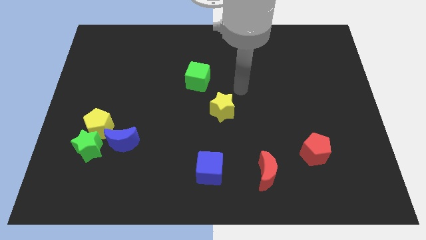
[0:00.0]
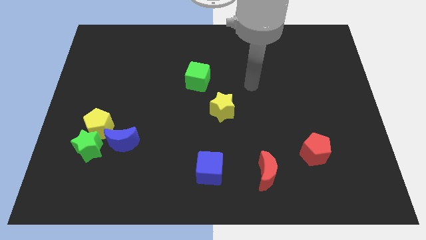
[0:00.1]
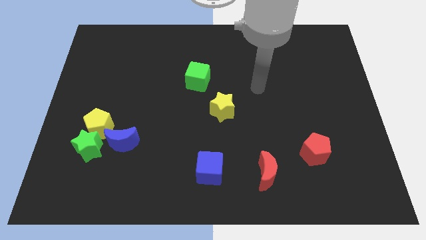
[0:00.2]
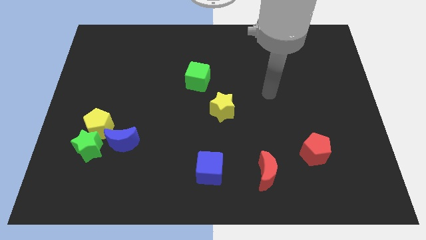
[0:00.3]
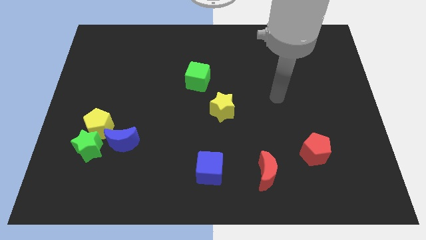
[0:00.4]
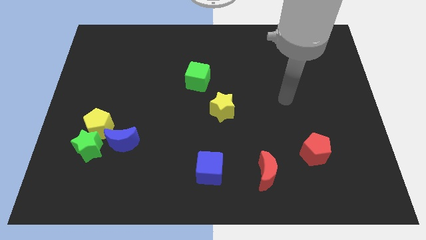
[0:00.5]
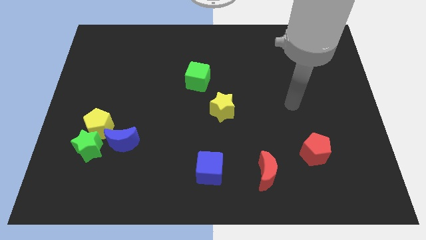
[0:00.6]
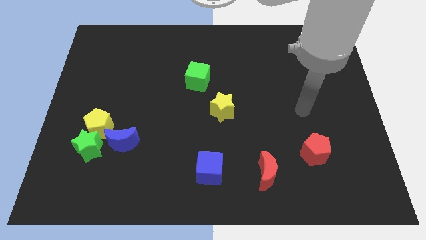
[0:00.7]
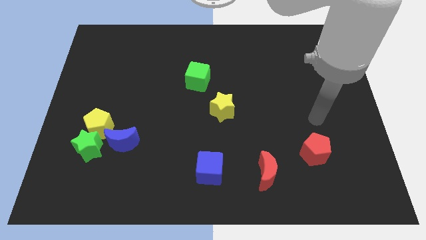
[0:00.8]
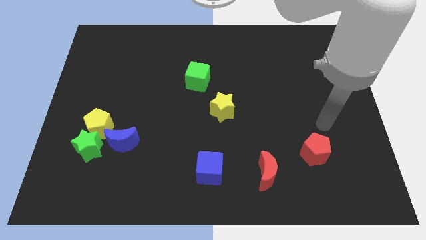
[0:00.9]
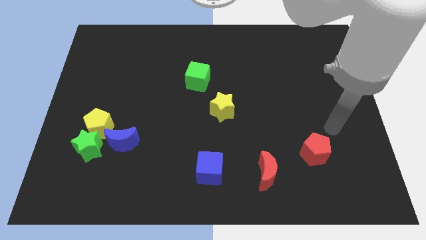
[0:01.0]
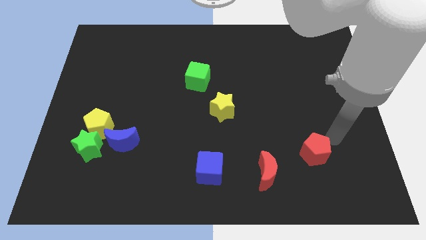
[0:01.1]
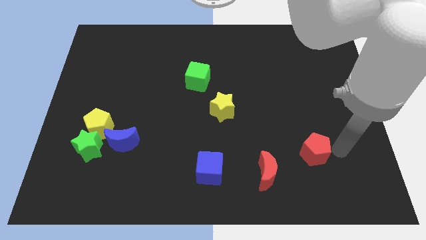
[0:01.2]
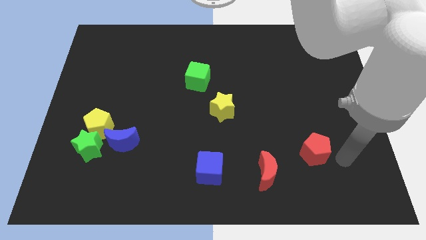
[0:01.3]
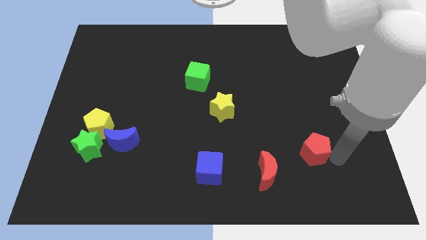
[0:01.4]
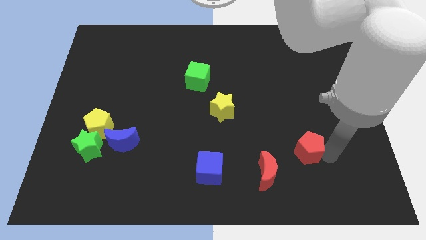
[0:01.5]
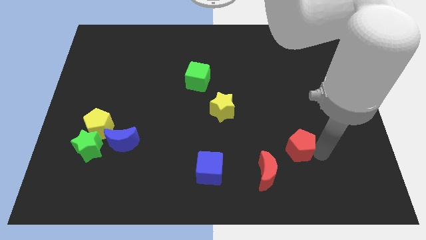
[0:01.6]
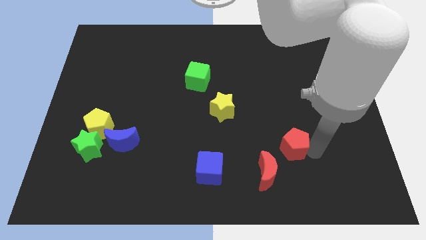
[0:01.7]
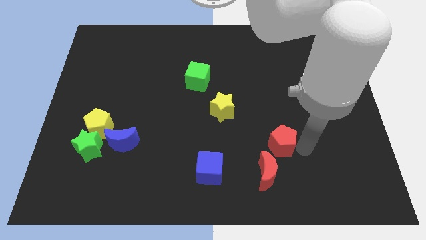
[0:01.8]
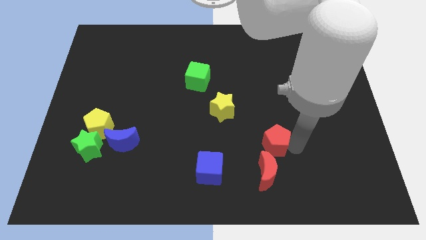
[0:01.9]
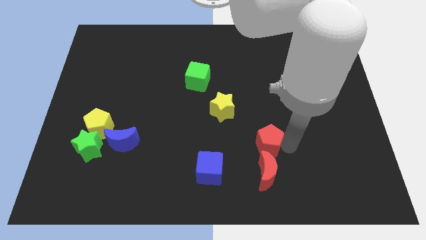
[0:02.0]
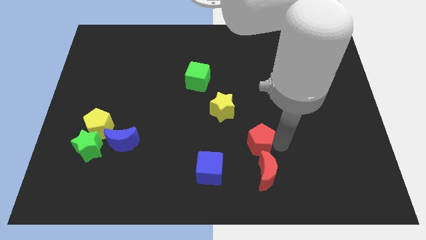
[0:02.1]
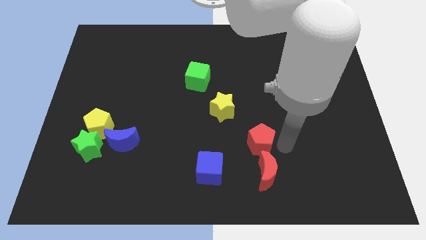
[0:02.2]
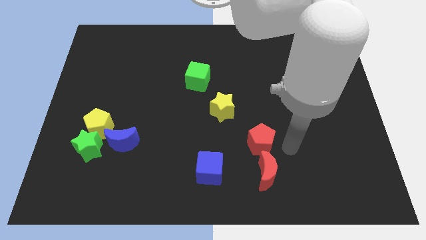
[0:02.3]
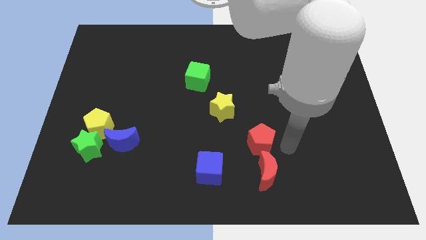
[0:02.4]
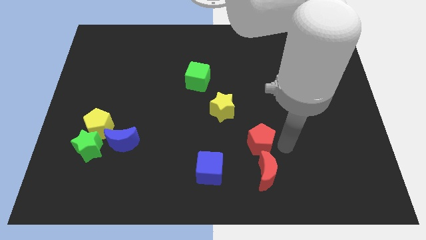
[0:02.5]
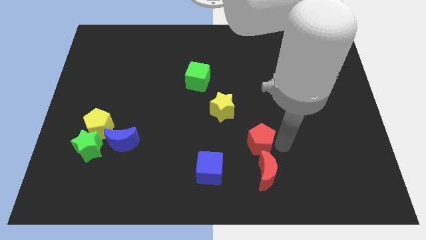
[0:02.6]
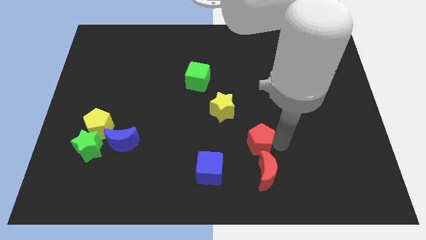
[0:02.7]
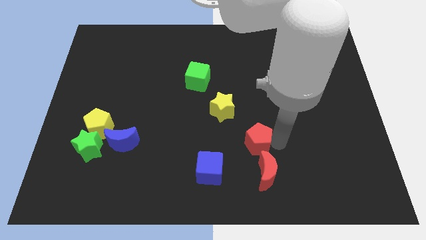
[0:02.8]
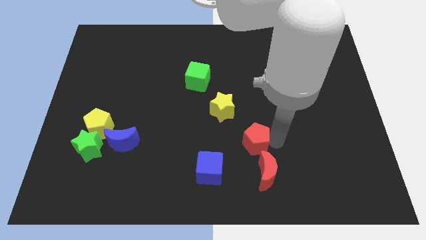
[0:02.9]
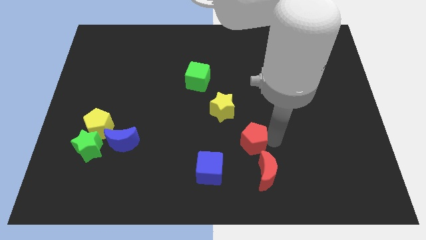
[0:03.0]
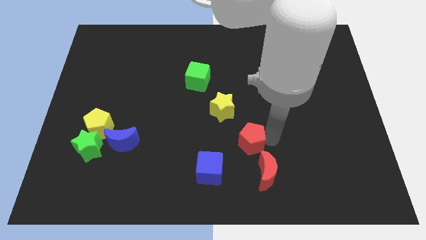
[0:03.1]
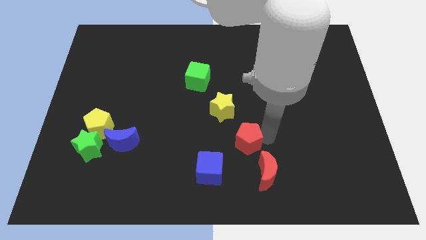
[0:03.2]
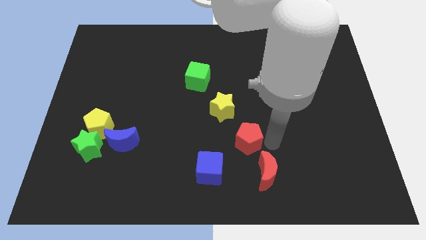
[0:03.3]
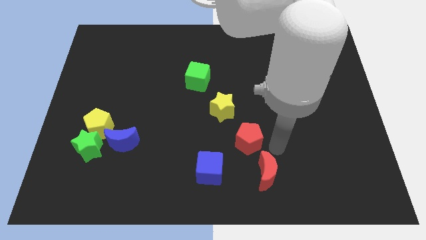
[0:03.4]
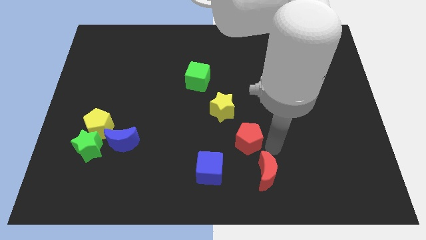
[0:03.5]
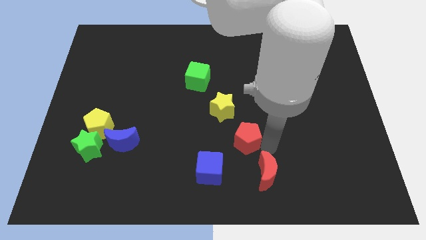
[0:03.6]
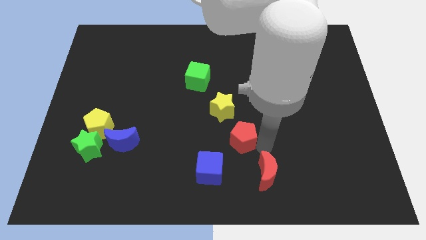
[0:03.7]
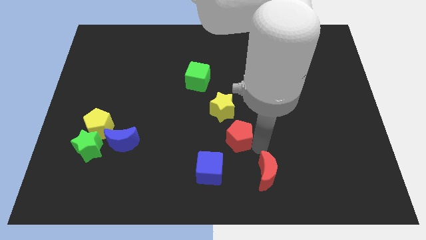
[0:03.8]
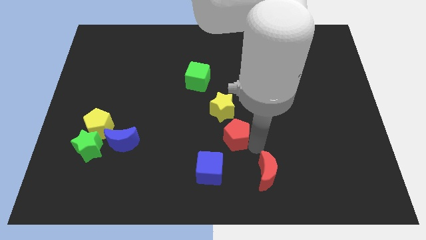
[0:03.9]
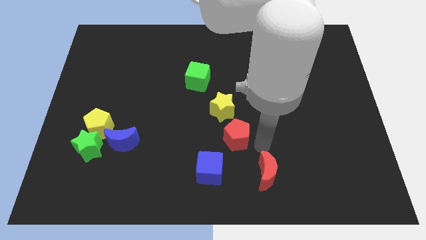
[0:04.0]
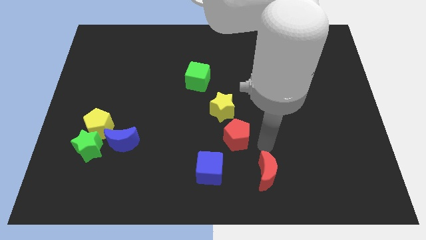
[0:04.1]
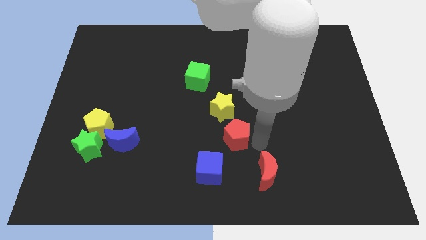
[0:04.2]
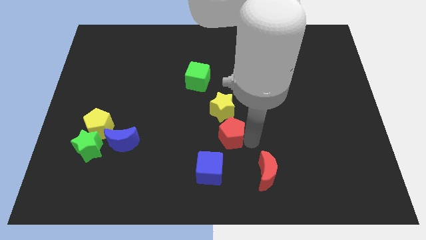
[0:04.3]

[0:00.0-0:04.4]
move the red pentagon to the top side of the blue cube

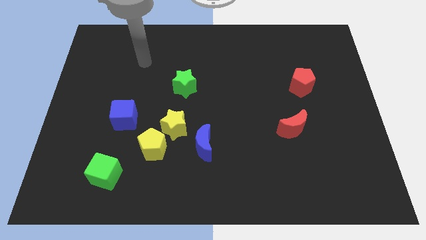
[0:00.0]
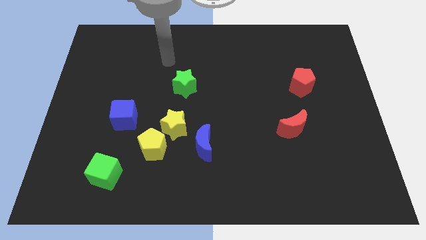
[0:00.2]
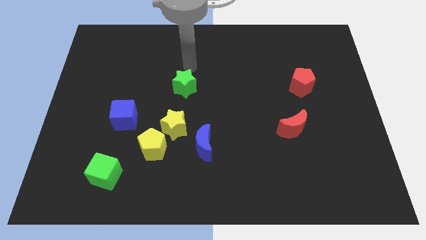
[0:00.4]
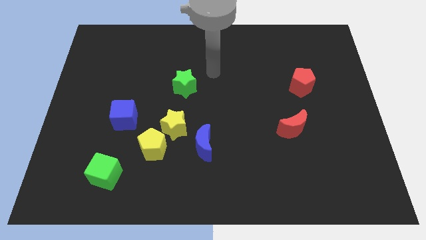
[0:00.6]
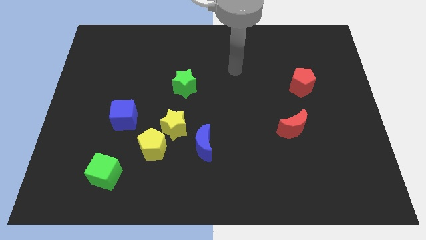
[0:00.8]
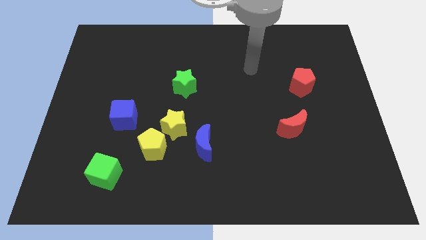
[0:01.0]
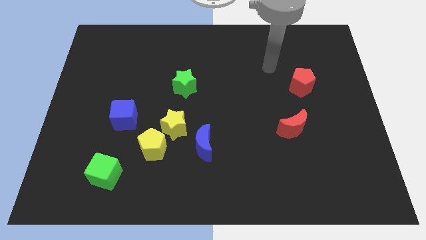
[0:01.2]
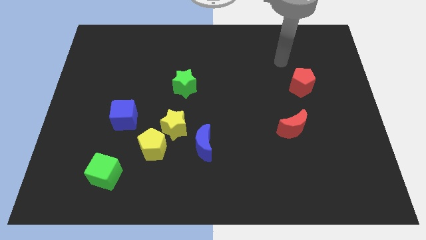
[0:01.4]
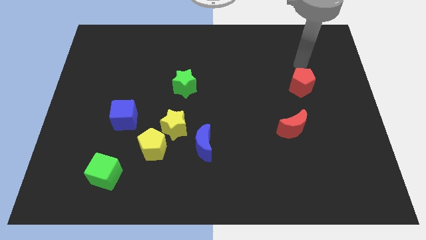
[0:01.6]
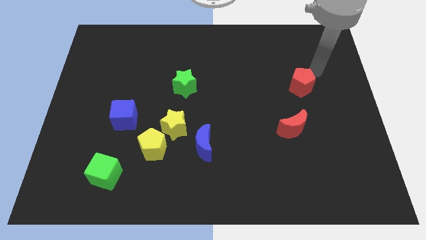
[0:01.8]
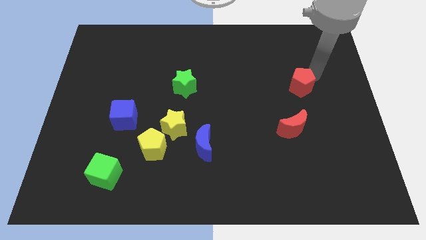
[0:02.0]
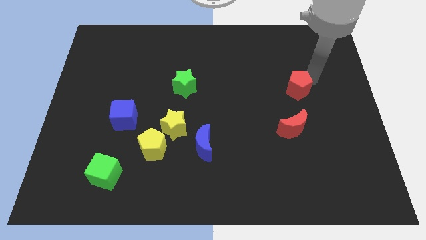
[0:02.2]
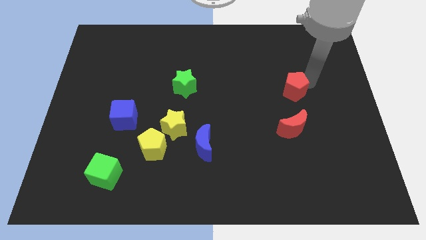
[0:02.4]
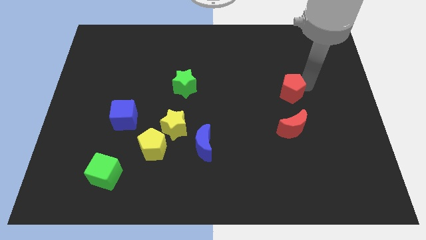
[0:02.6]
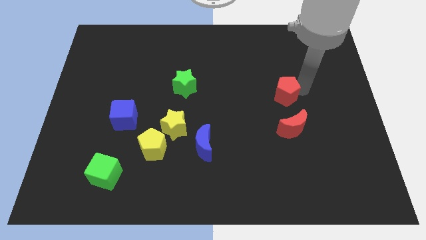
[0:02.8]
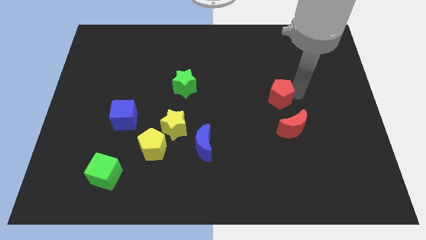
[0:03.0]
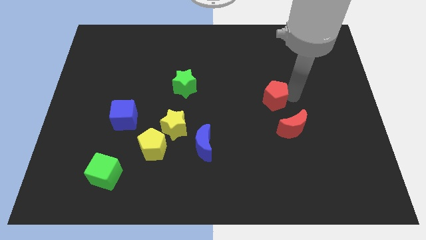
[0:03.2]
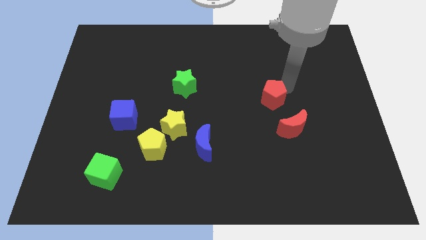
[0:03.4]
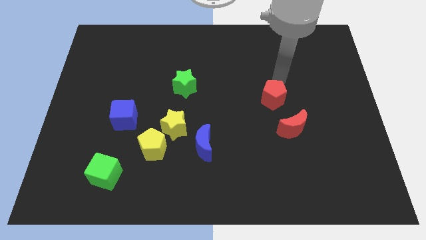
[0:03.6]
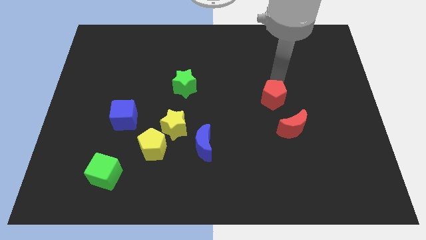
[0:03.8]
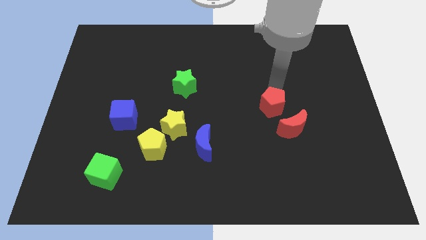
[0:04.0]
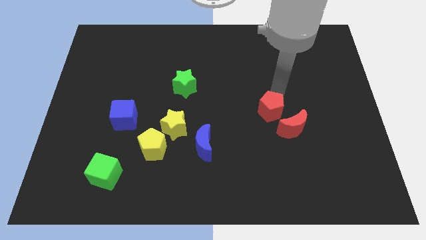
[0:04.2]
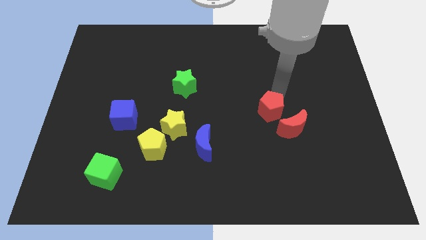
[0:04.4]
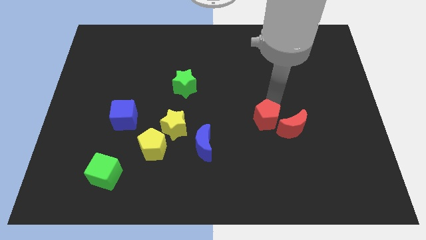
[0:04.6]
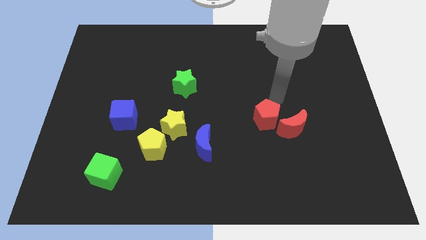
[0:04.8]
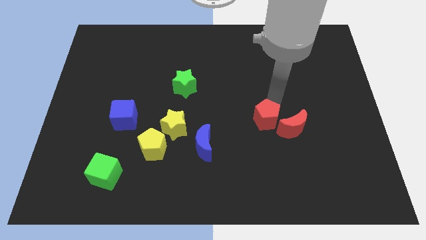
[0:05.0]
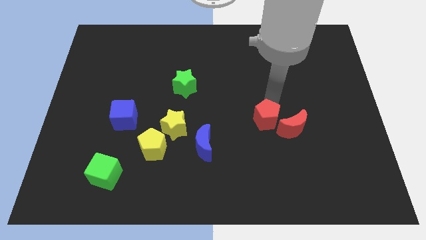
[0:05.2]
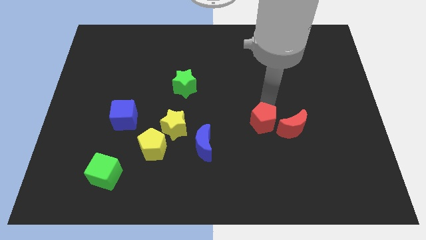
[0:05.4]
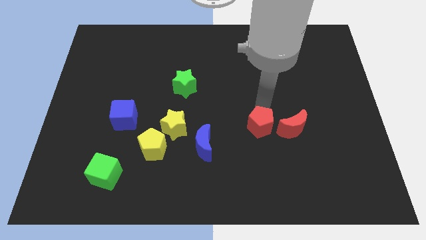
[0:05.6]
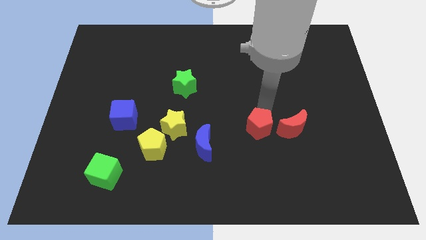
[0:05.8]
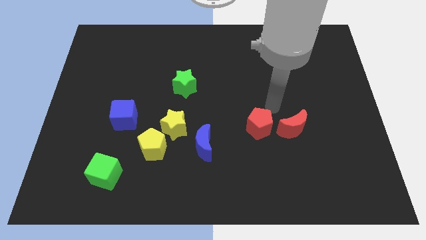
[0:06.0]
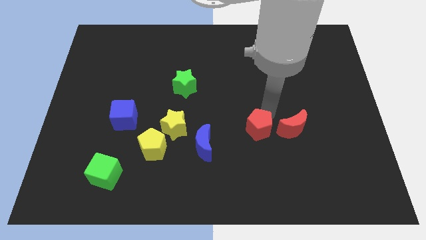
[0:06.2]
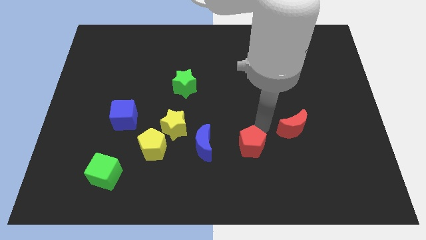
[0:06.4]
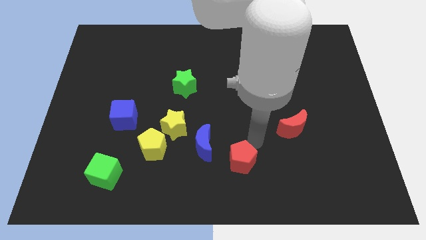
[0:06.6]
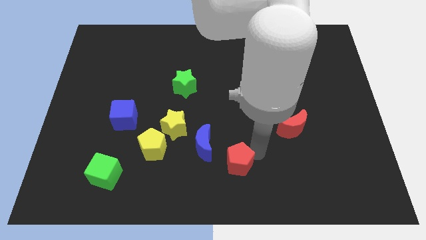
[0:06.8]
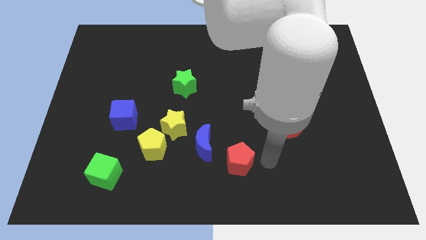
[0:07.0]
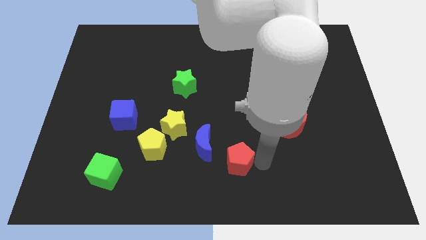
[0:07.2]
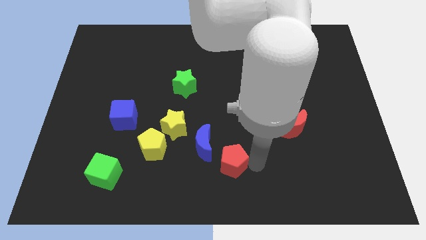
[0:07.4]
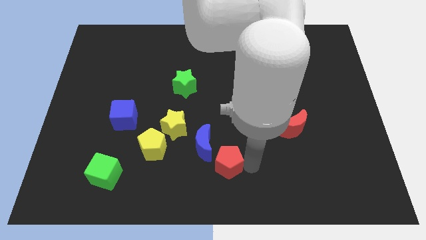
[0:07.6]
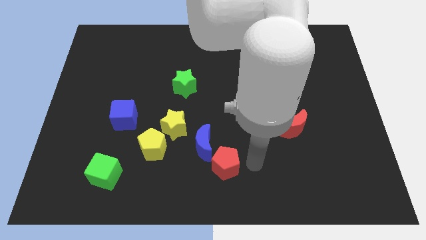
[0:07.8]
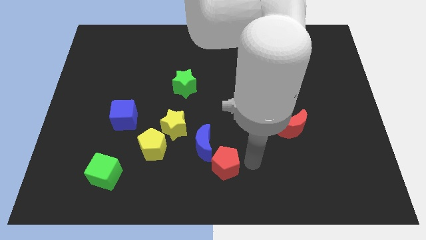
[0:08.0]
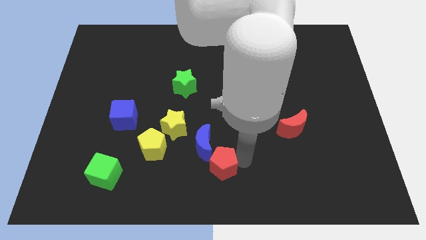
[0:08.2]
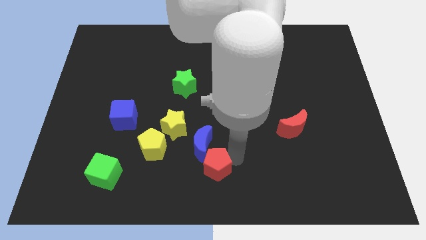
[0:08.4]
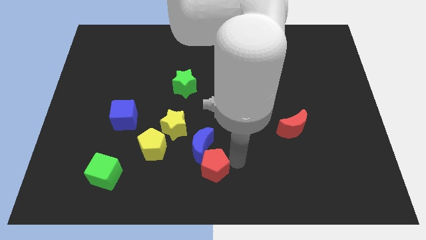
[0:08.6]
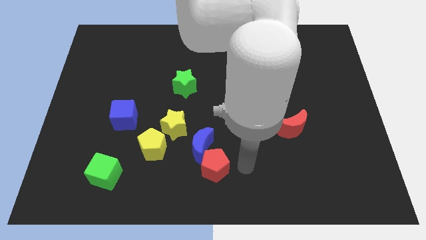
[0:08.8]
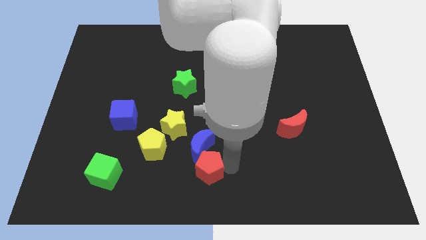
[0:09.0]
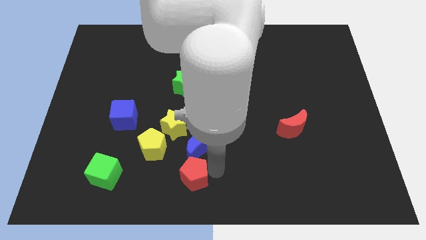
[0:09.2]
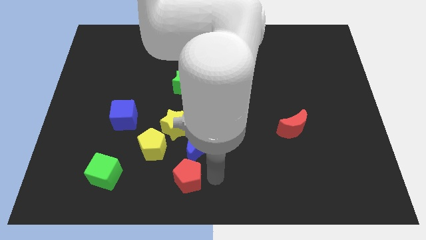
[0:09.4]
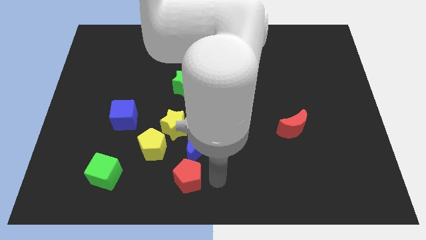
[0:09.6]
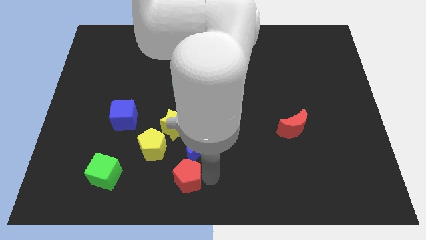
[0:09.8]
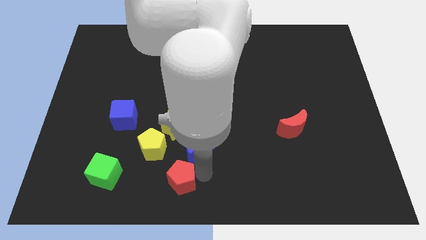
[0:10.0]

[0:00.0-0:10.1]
put the red pentagon to the right side of the green cube
